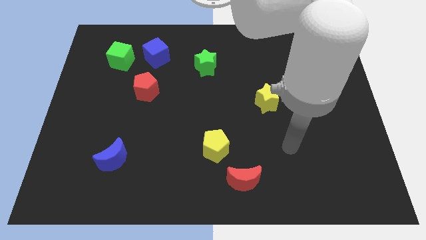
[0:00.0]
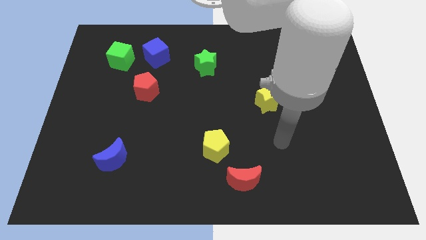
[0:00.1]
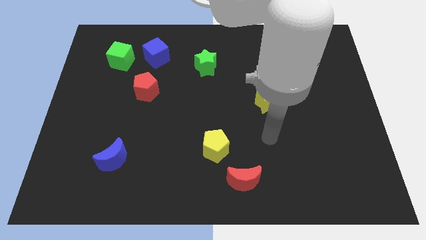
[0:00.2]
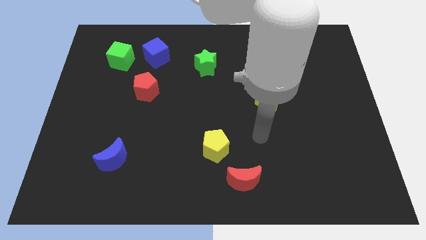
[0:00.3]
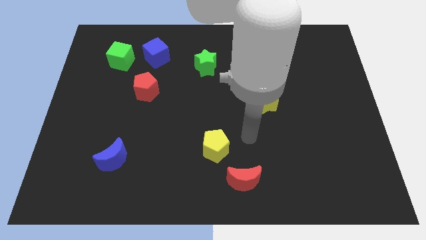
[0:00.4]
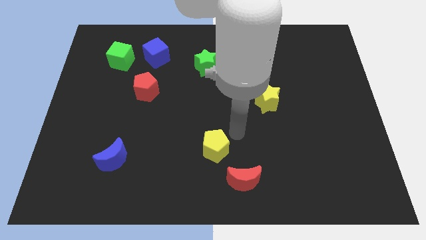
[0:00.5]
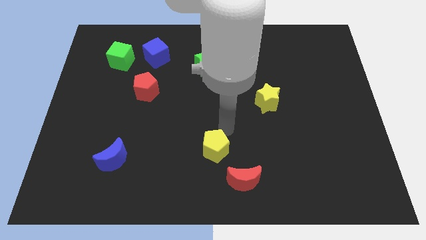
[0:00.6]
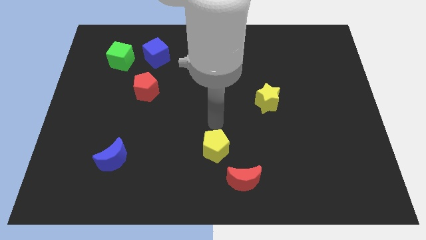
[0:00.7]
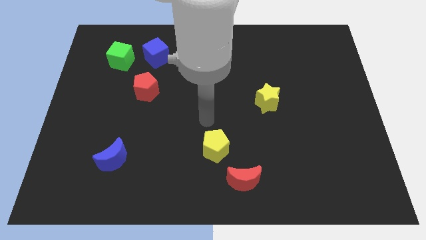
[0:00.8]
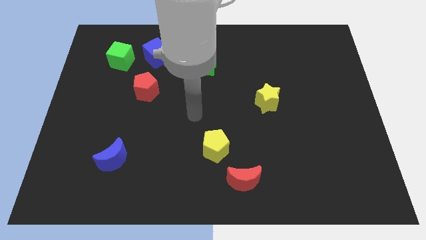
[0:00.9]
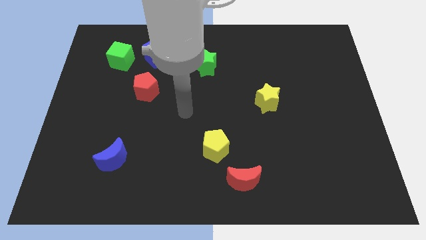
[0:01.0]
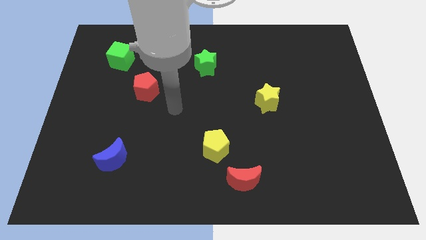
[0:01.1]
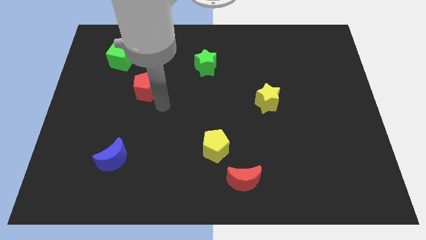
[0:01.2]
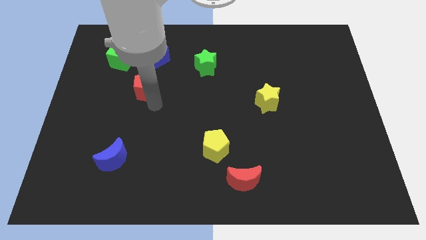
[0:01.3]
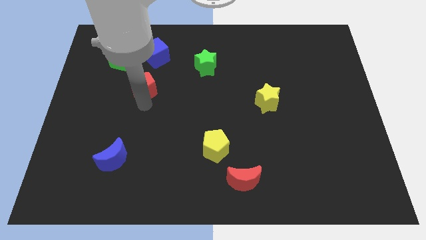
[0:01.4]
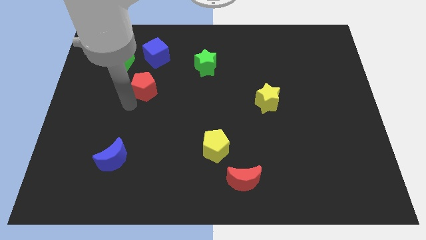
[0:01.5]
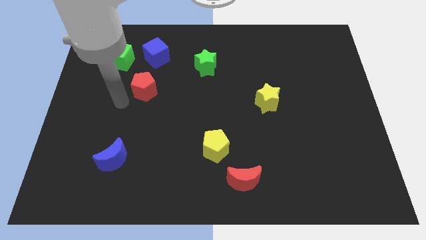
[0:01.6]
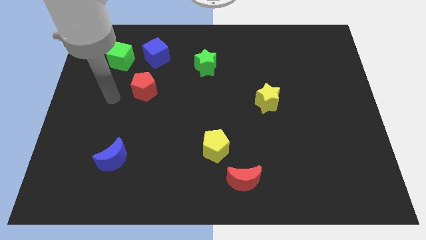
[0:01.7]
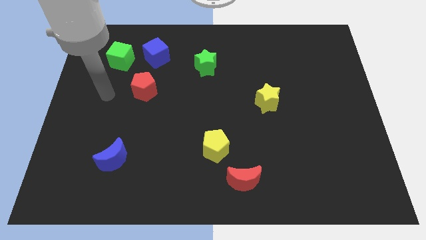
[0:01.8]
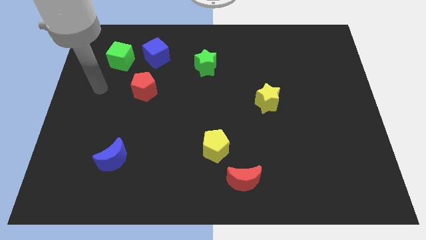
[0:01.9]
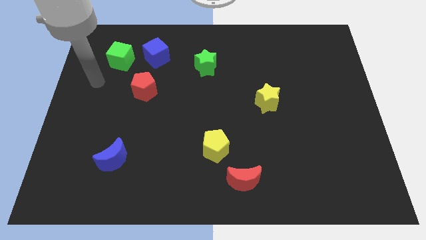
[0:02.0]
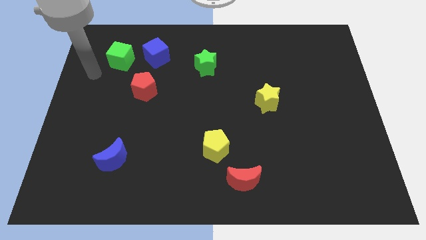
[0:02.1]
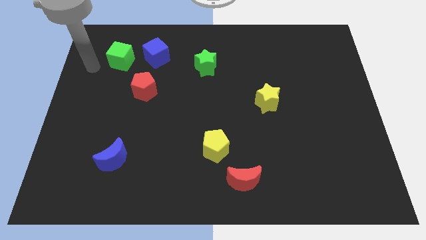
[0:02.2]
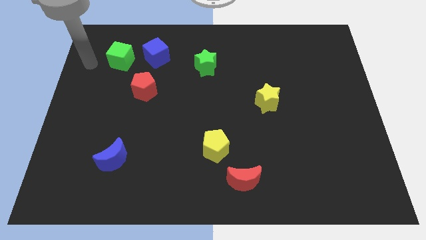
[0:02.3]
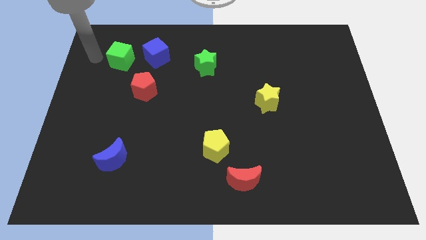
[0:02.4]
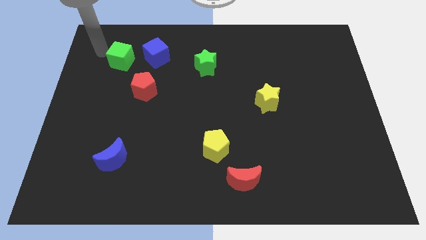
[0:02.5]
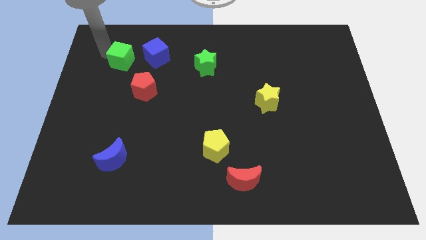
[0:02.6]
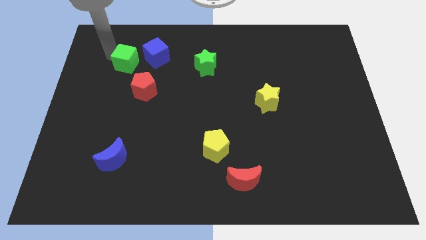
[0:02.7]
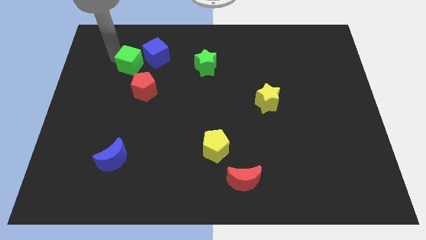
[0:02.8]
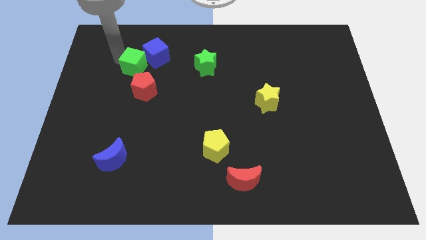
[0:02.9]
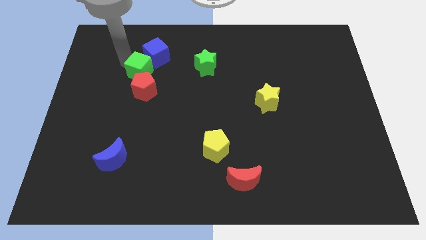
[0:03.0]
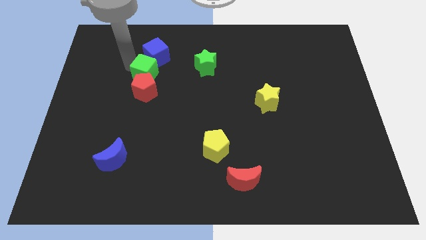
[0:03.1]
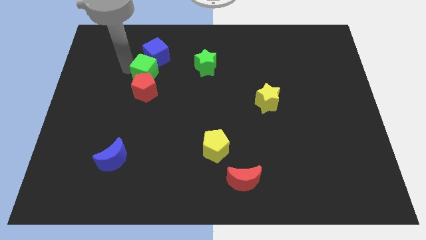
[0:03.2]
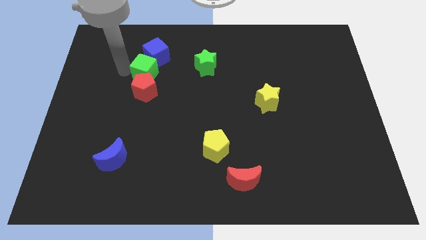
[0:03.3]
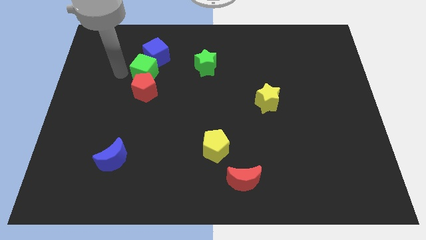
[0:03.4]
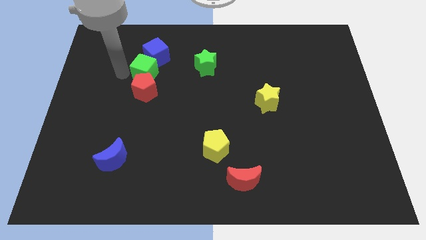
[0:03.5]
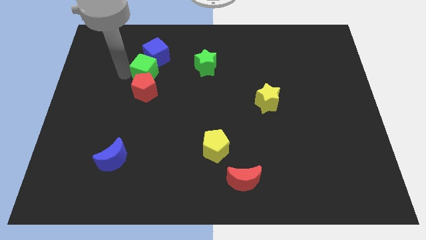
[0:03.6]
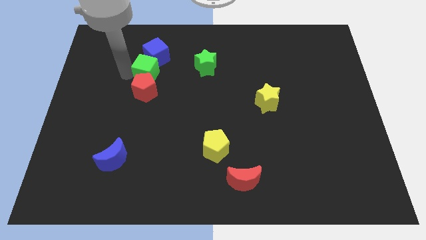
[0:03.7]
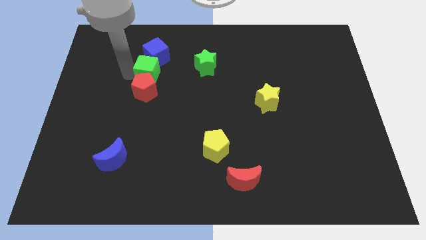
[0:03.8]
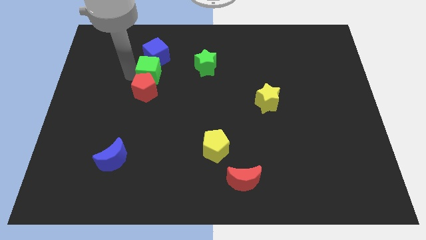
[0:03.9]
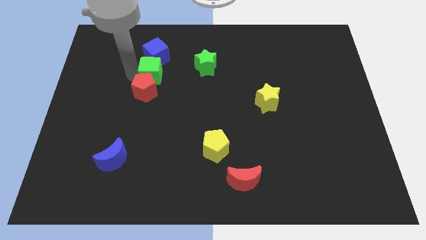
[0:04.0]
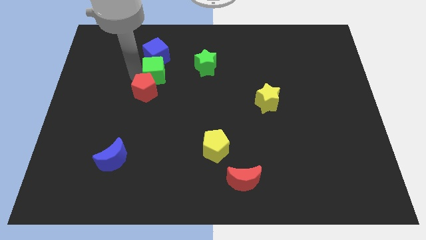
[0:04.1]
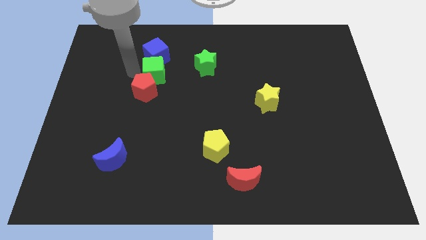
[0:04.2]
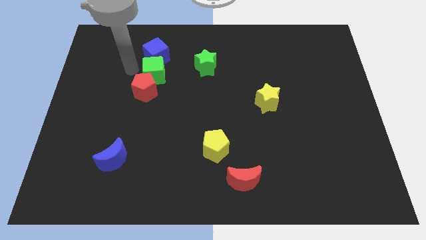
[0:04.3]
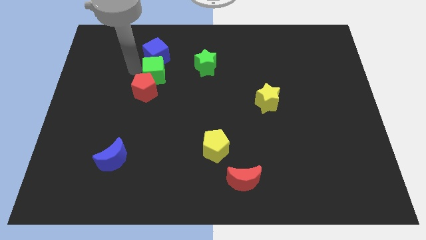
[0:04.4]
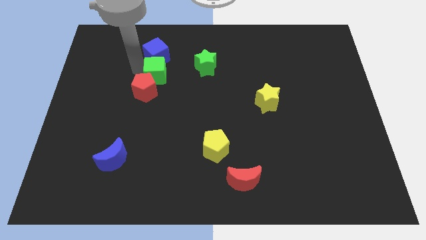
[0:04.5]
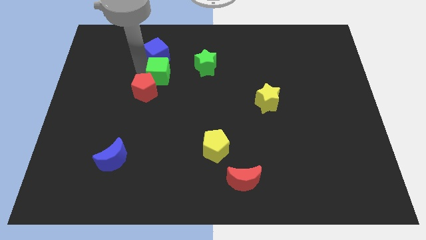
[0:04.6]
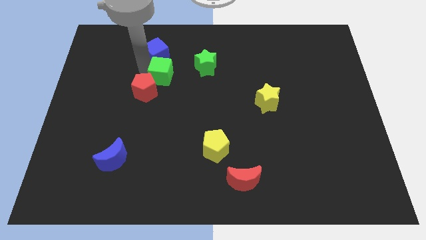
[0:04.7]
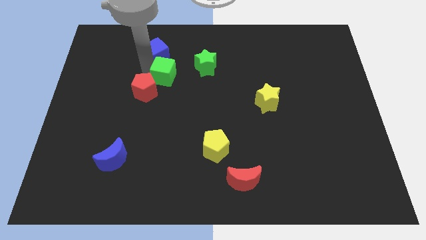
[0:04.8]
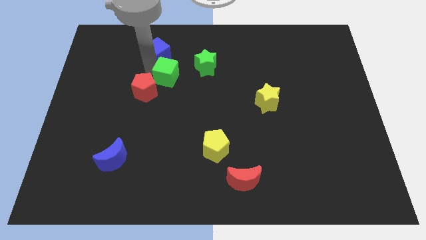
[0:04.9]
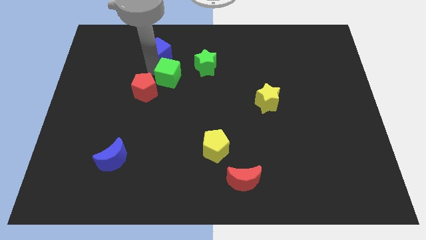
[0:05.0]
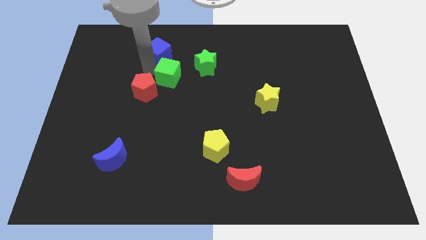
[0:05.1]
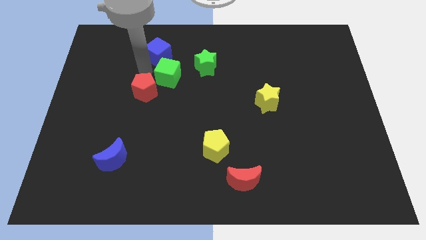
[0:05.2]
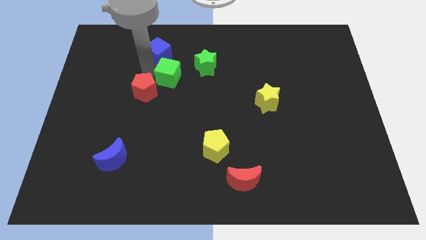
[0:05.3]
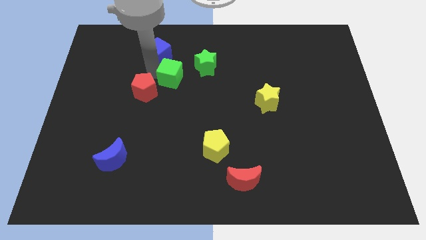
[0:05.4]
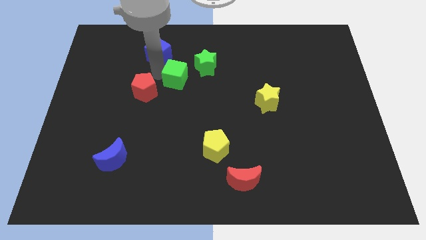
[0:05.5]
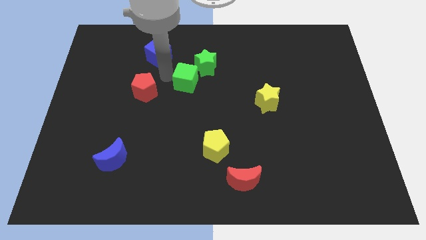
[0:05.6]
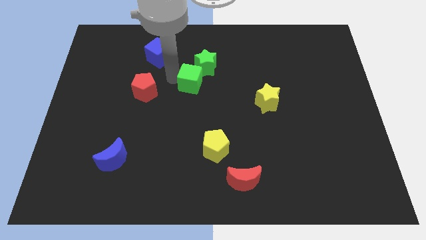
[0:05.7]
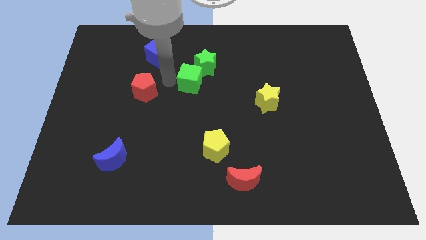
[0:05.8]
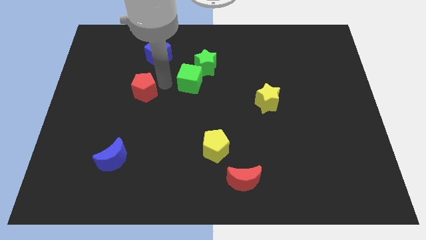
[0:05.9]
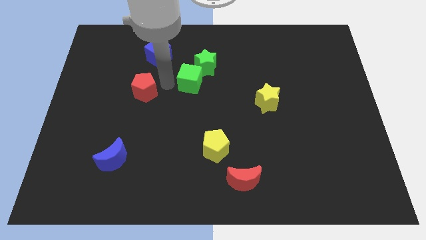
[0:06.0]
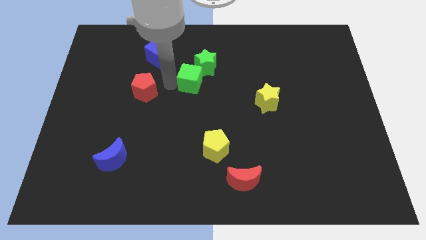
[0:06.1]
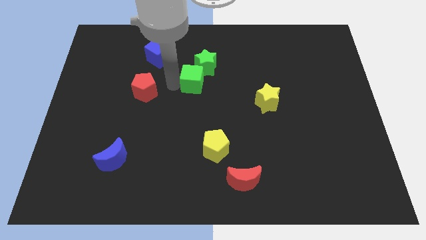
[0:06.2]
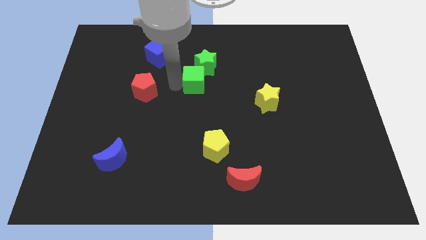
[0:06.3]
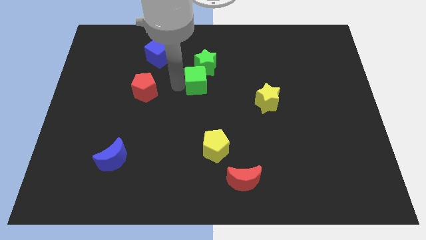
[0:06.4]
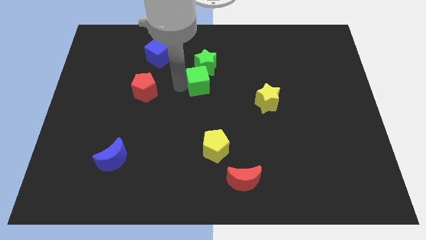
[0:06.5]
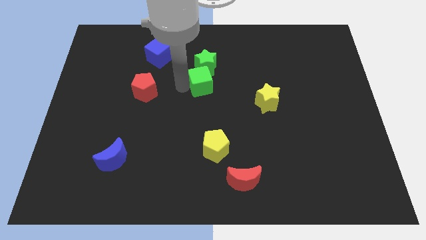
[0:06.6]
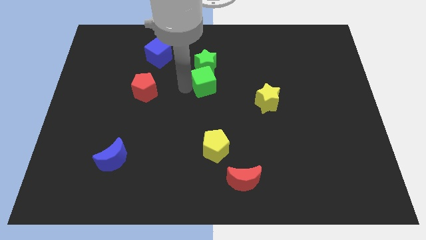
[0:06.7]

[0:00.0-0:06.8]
put the green cube to the bottom right side of the green star

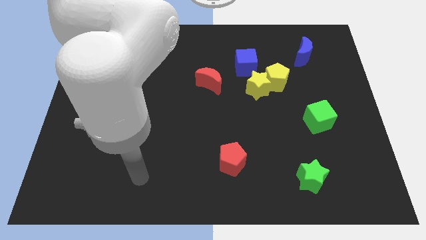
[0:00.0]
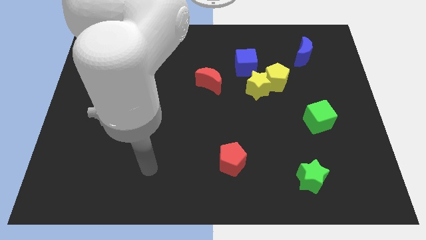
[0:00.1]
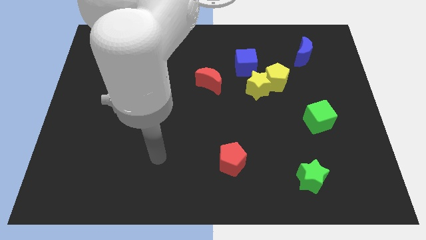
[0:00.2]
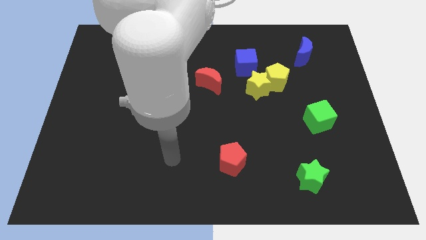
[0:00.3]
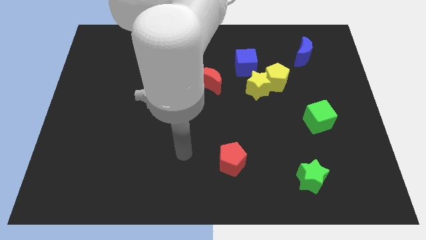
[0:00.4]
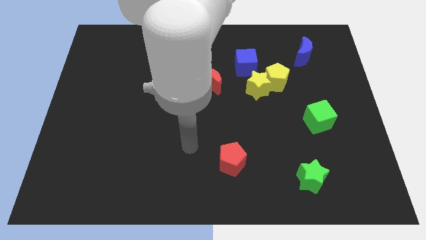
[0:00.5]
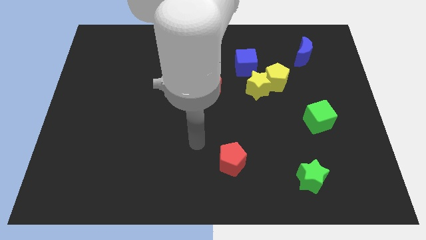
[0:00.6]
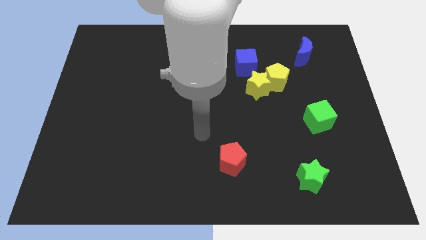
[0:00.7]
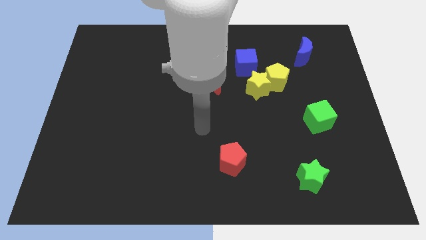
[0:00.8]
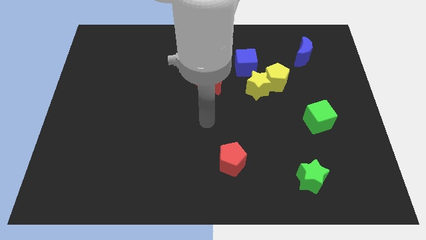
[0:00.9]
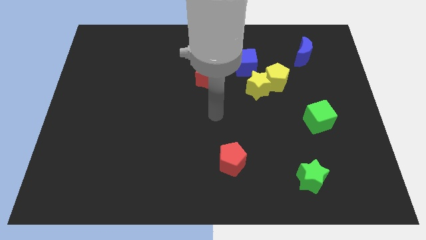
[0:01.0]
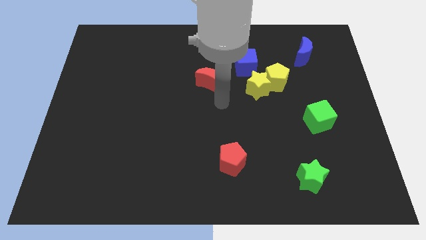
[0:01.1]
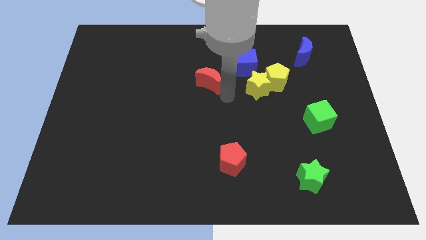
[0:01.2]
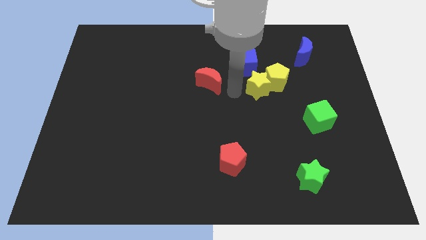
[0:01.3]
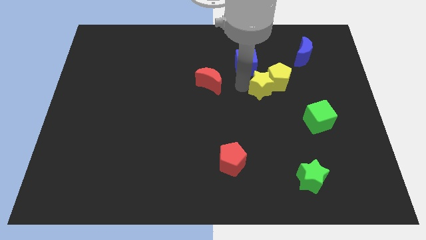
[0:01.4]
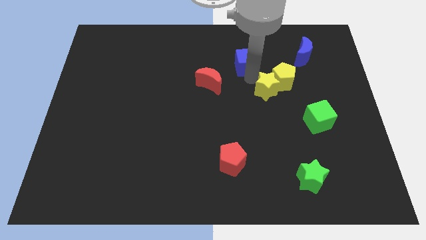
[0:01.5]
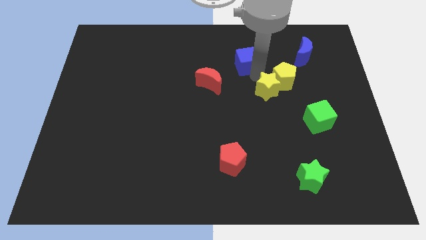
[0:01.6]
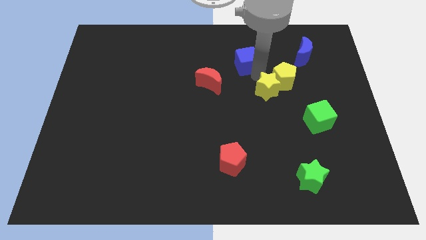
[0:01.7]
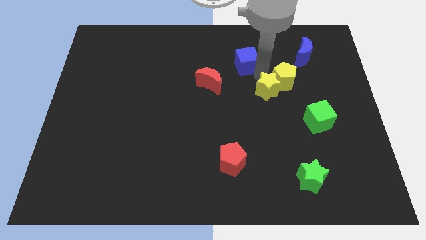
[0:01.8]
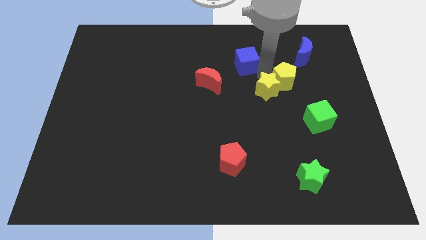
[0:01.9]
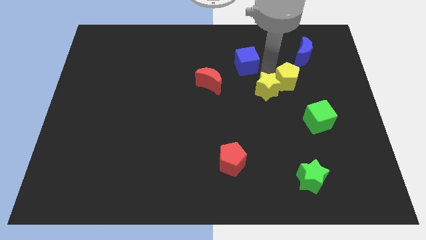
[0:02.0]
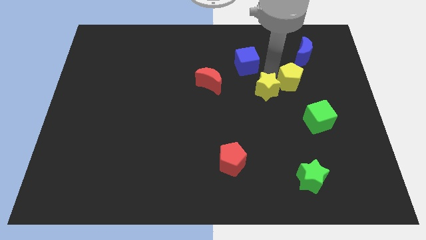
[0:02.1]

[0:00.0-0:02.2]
move the yellow pentagon to the top of the green cube
